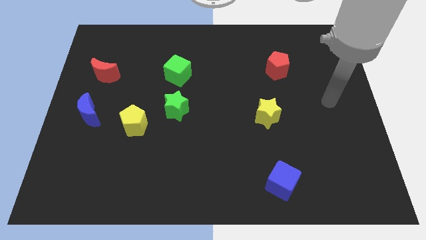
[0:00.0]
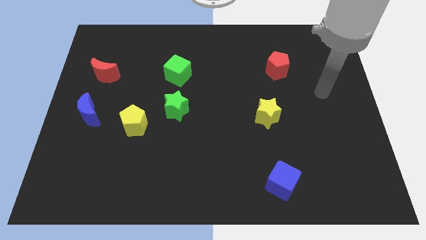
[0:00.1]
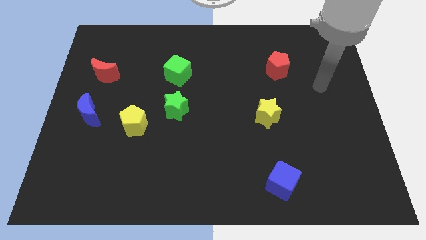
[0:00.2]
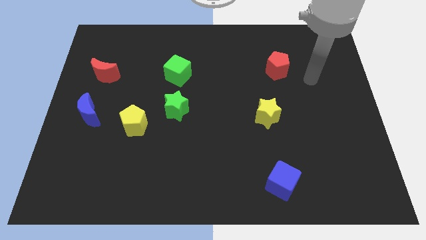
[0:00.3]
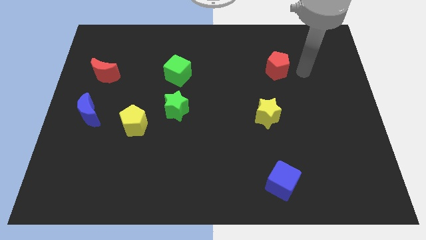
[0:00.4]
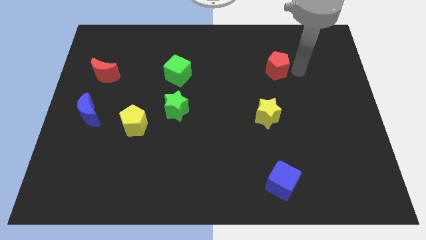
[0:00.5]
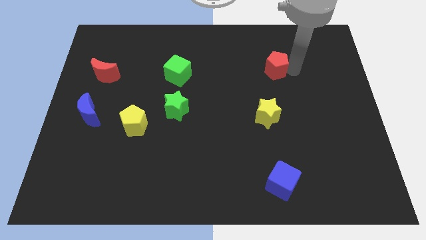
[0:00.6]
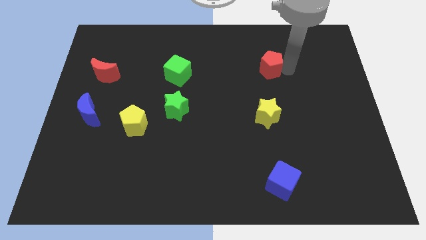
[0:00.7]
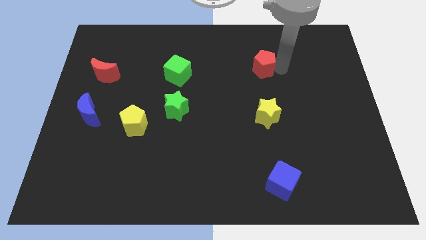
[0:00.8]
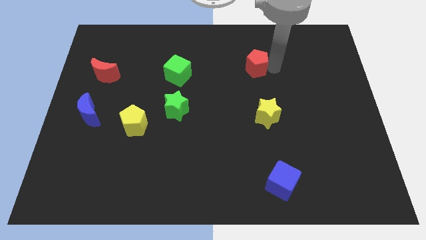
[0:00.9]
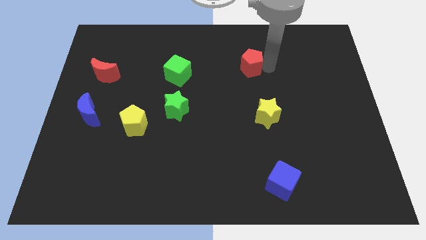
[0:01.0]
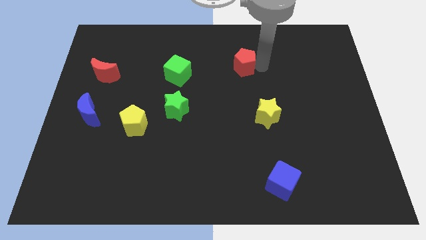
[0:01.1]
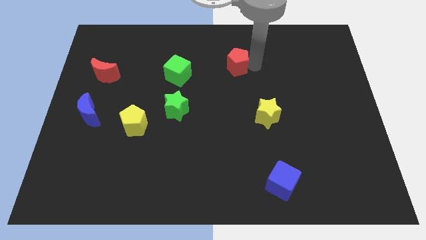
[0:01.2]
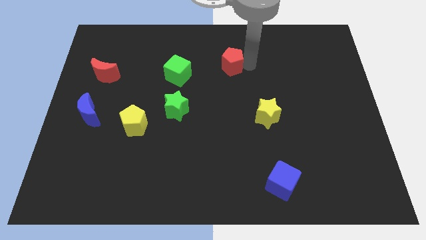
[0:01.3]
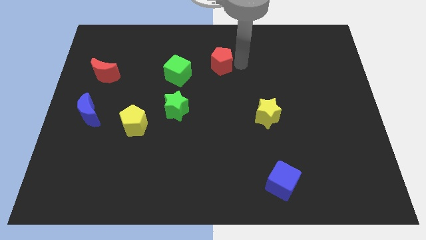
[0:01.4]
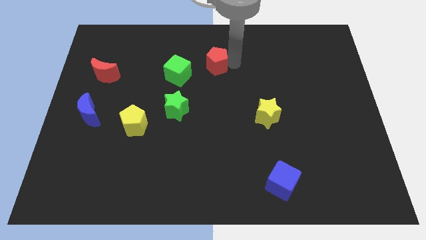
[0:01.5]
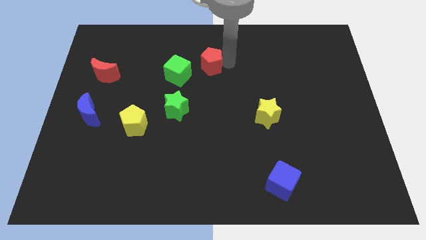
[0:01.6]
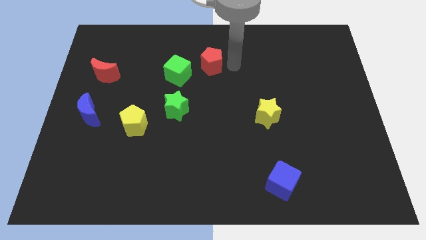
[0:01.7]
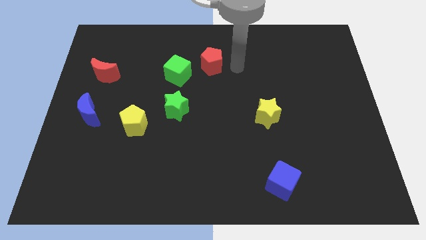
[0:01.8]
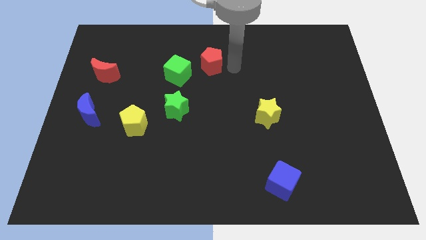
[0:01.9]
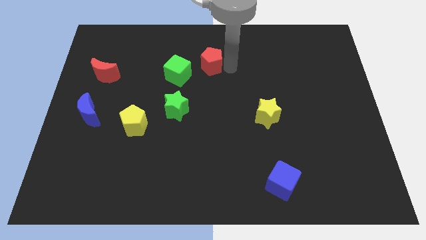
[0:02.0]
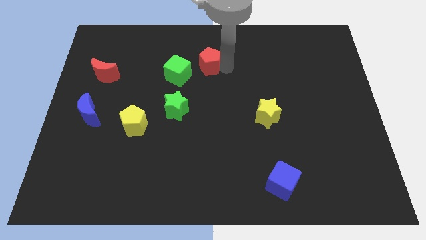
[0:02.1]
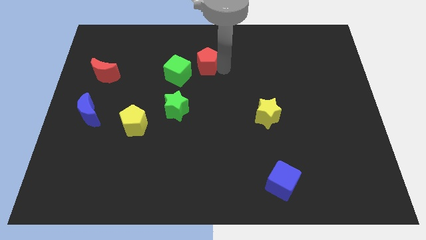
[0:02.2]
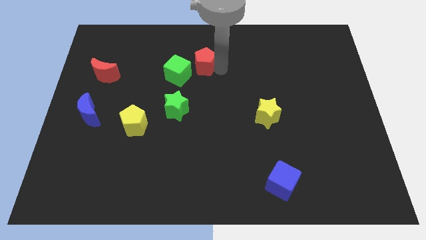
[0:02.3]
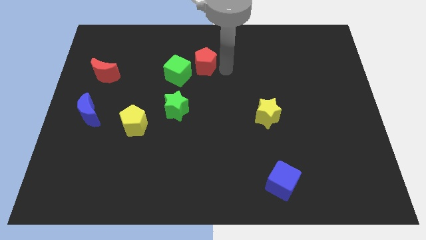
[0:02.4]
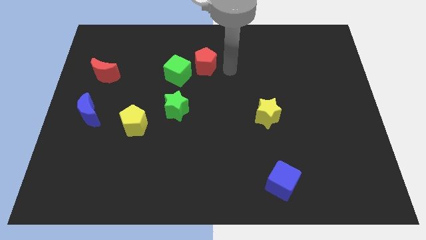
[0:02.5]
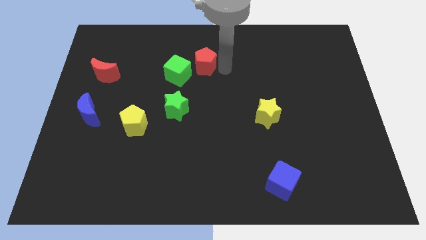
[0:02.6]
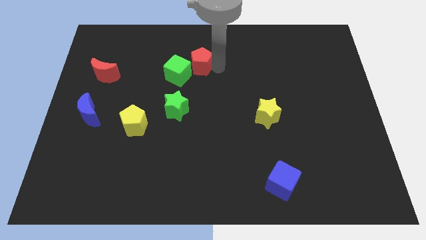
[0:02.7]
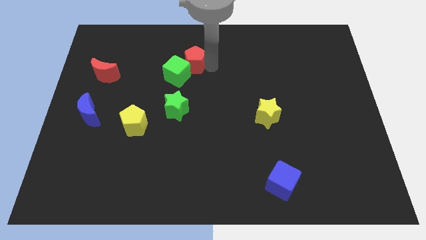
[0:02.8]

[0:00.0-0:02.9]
push the red pentagon left

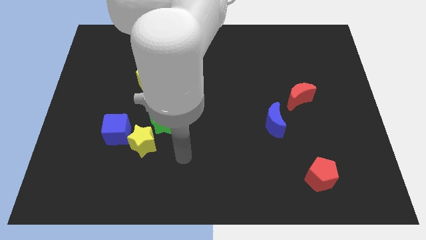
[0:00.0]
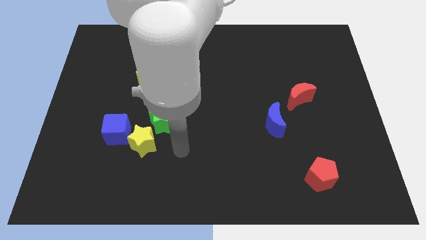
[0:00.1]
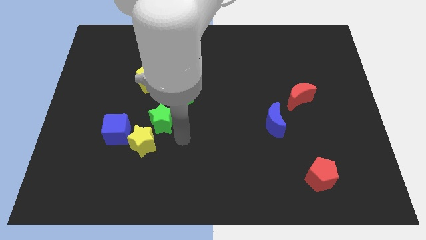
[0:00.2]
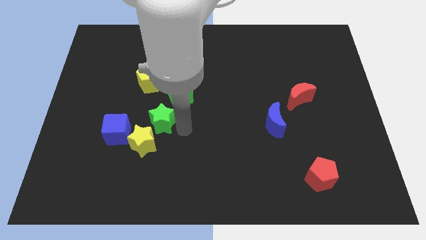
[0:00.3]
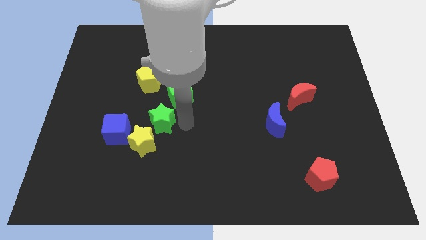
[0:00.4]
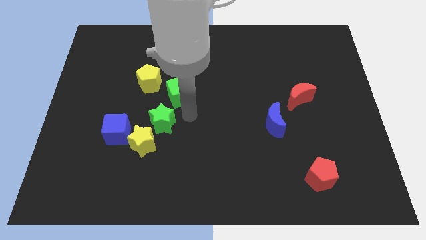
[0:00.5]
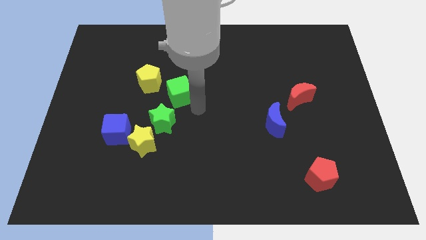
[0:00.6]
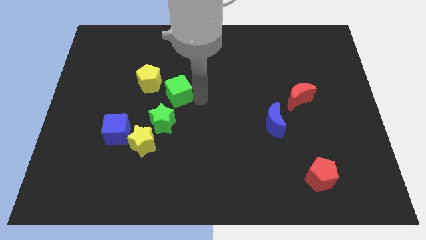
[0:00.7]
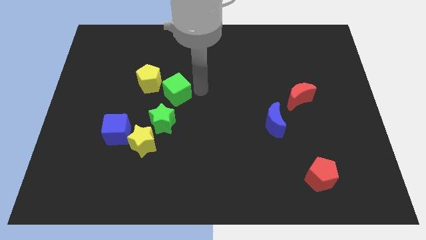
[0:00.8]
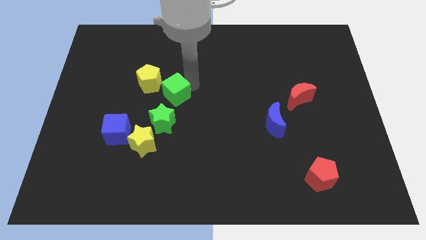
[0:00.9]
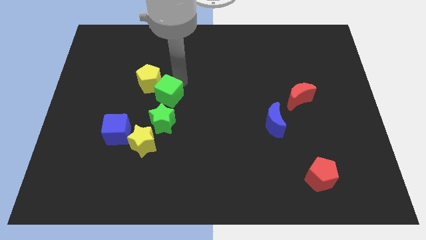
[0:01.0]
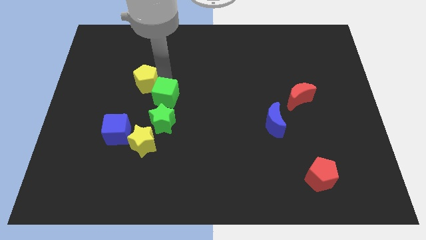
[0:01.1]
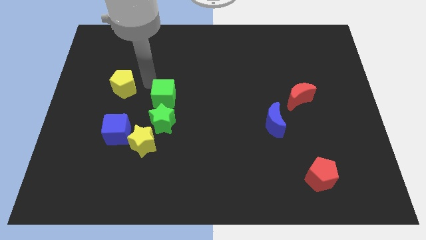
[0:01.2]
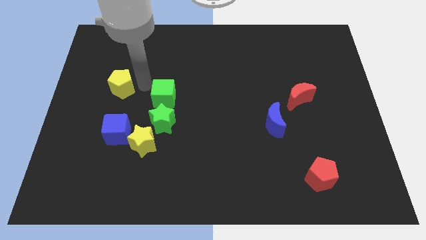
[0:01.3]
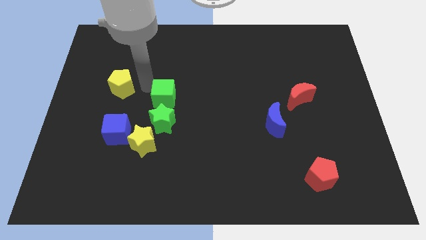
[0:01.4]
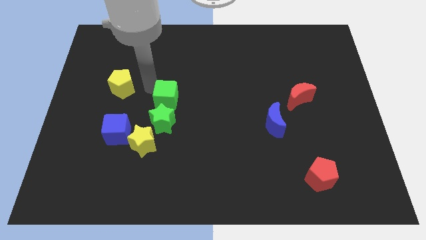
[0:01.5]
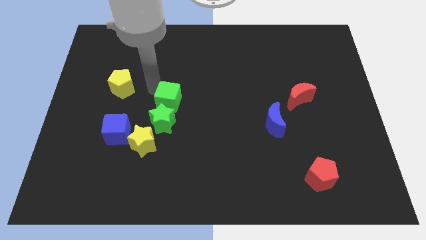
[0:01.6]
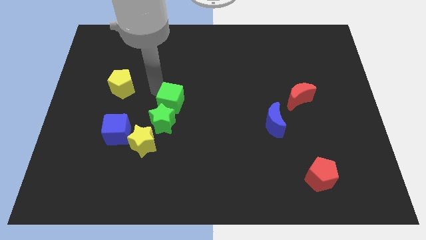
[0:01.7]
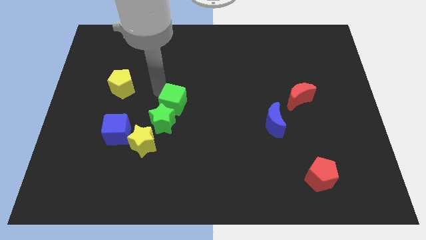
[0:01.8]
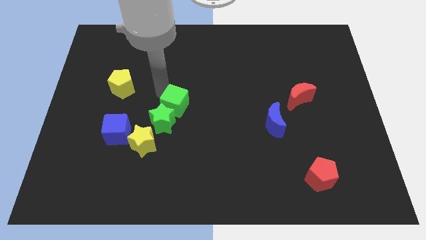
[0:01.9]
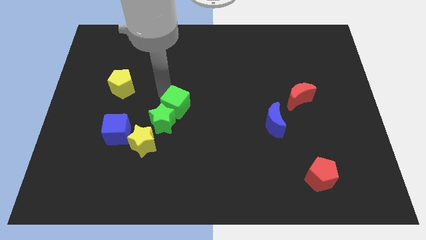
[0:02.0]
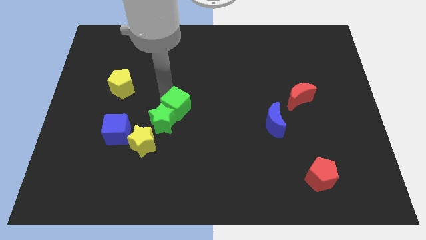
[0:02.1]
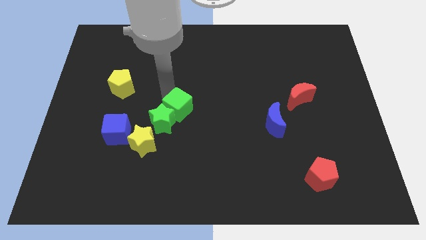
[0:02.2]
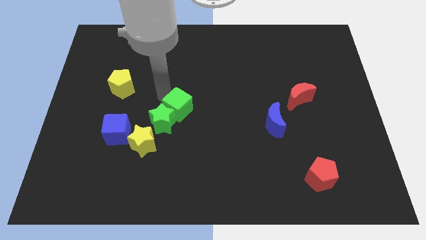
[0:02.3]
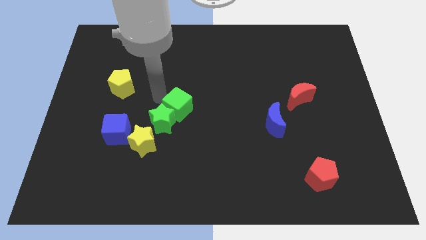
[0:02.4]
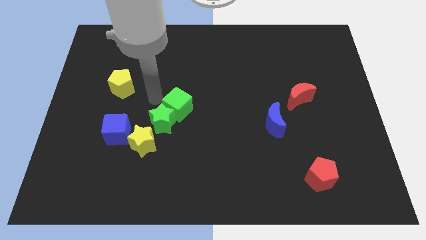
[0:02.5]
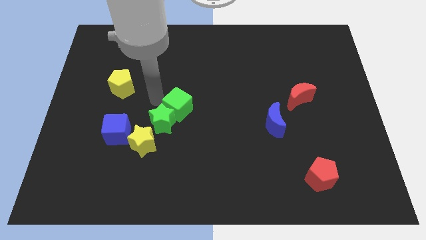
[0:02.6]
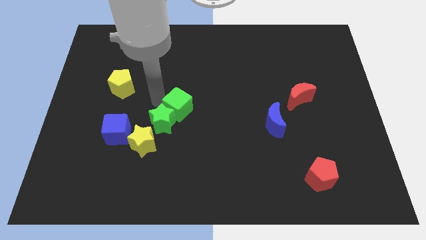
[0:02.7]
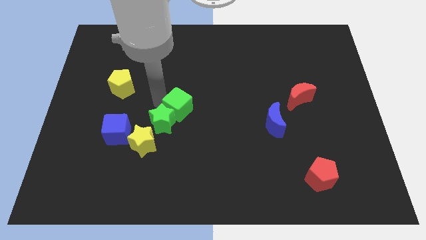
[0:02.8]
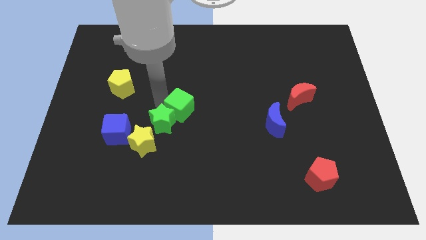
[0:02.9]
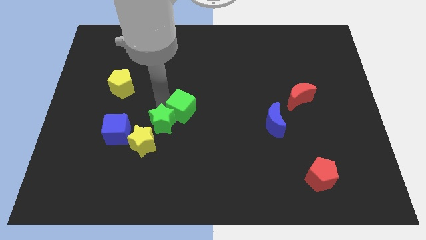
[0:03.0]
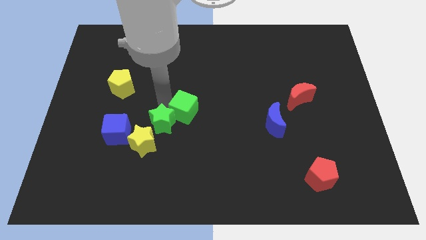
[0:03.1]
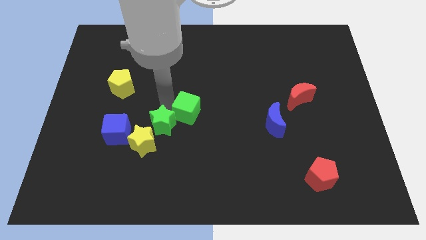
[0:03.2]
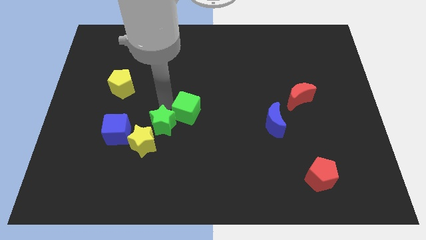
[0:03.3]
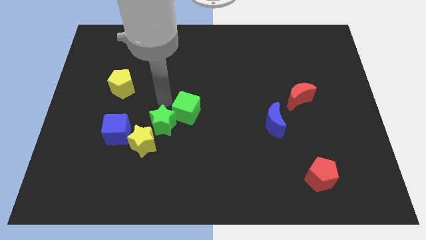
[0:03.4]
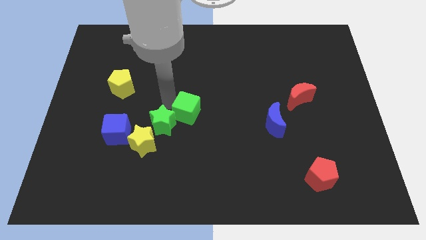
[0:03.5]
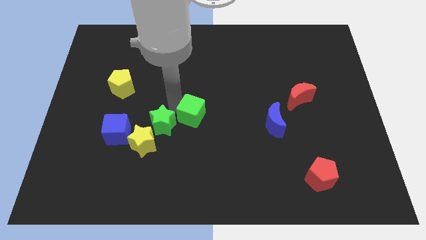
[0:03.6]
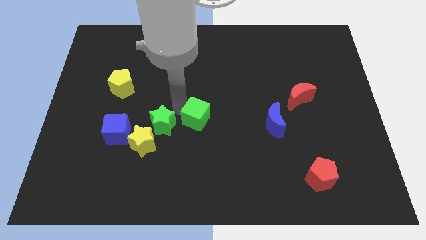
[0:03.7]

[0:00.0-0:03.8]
push the green cube downwards and to the right diagonally a little bit

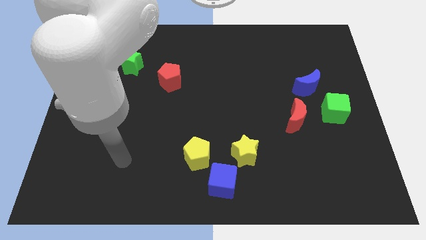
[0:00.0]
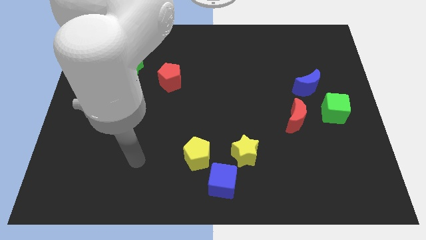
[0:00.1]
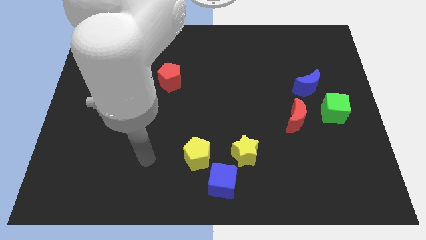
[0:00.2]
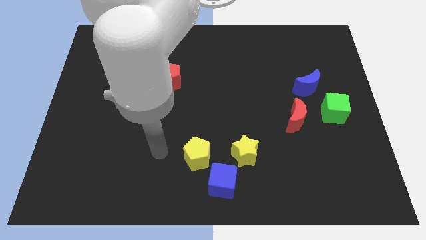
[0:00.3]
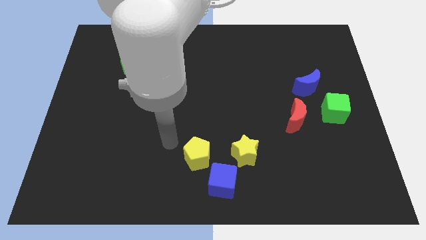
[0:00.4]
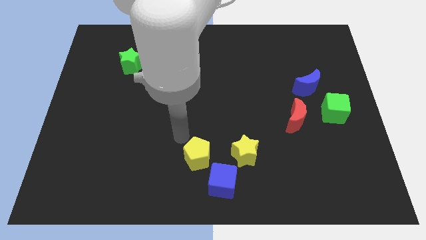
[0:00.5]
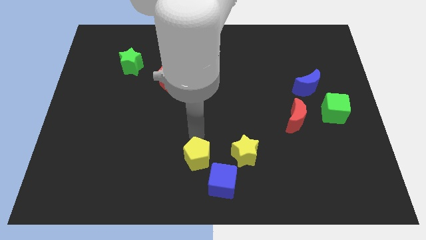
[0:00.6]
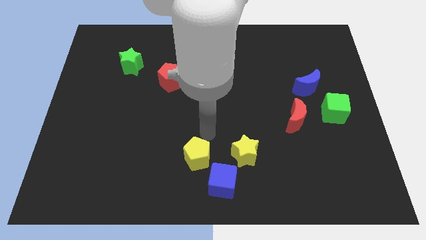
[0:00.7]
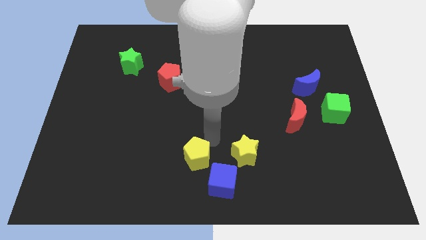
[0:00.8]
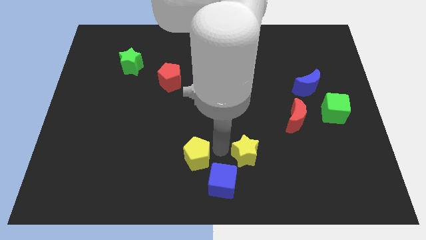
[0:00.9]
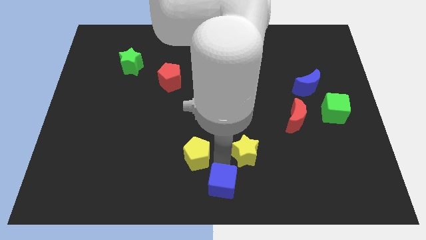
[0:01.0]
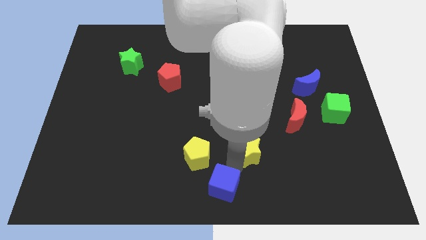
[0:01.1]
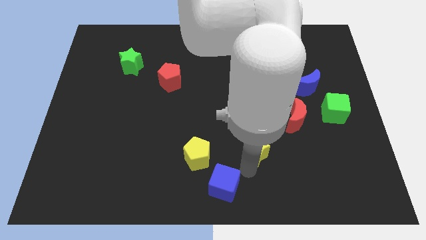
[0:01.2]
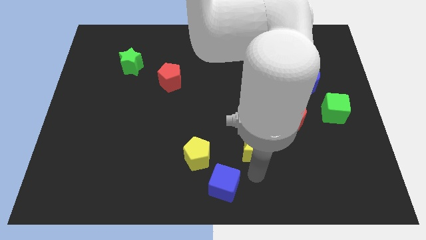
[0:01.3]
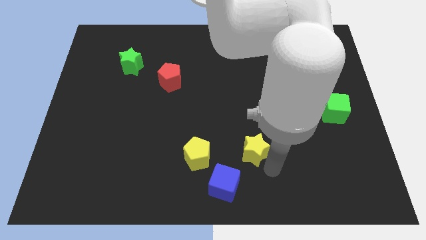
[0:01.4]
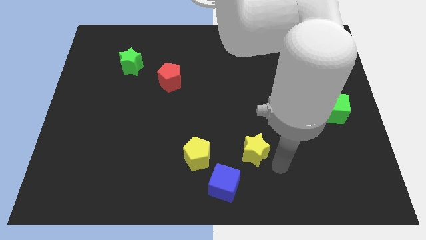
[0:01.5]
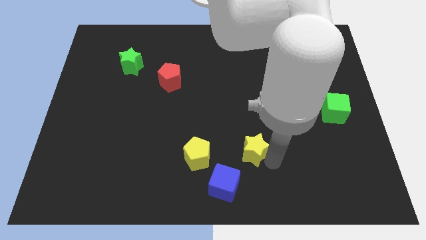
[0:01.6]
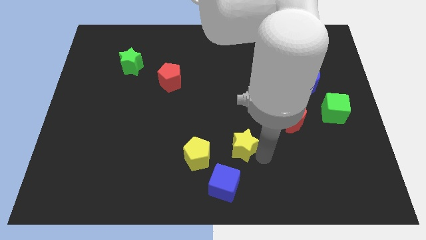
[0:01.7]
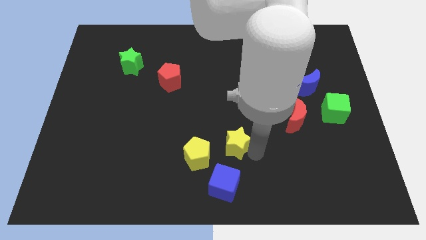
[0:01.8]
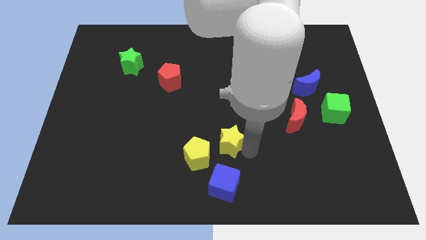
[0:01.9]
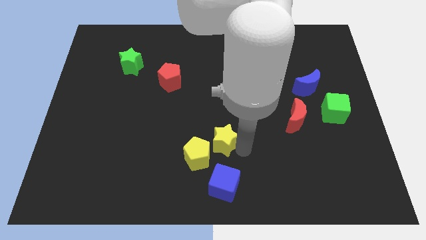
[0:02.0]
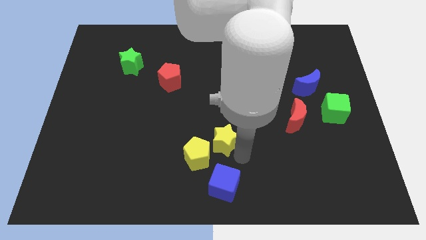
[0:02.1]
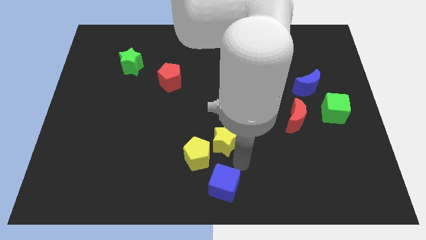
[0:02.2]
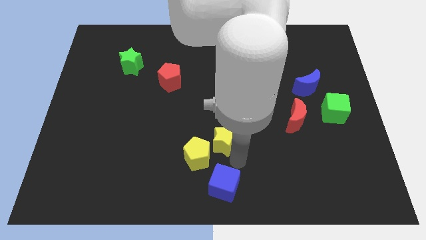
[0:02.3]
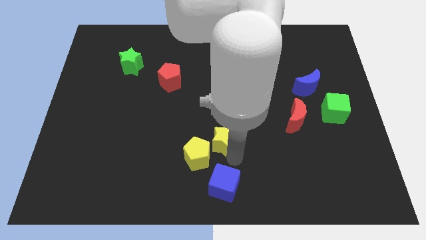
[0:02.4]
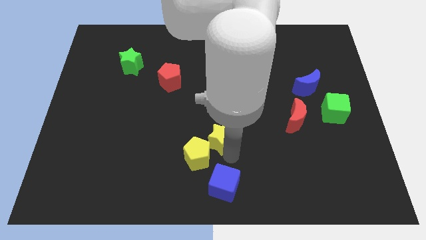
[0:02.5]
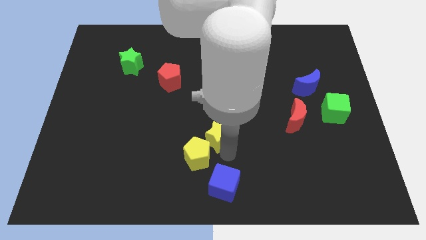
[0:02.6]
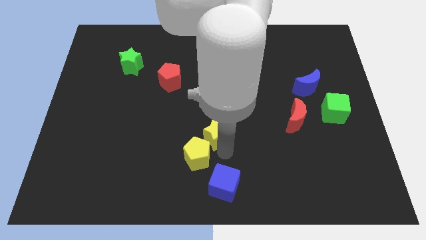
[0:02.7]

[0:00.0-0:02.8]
slightly push the yellow star up and then to the left
